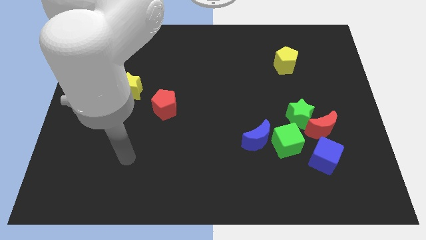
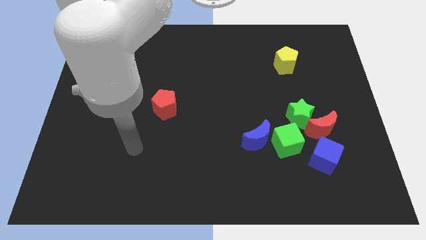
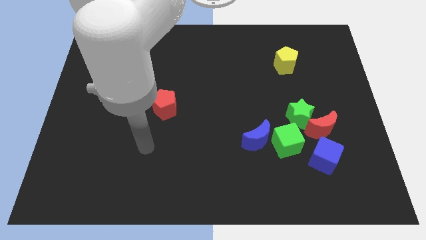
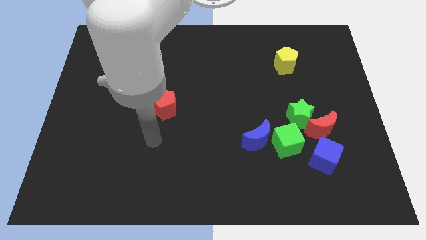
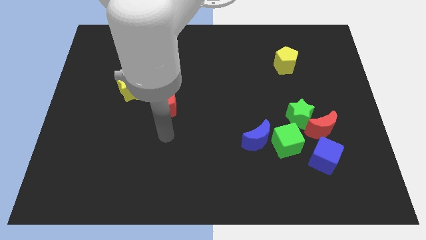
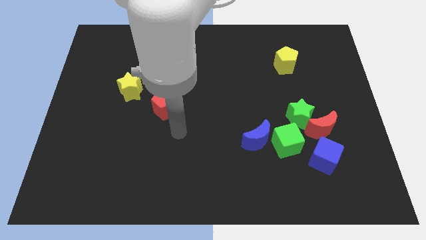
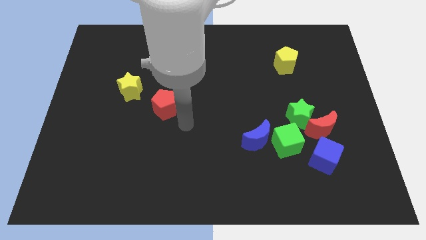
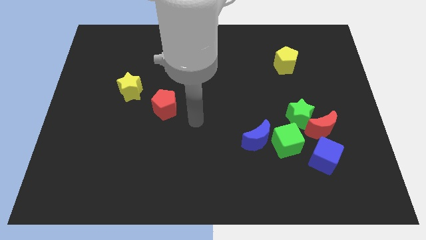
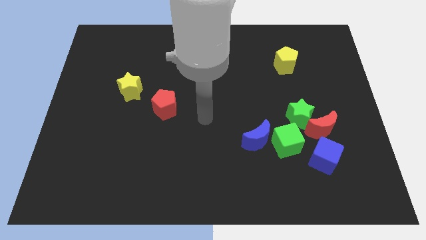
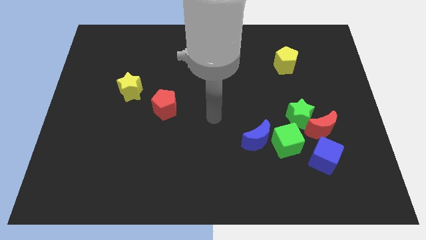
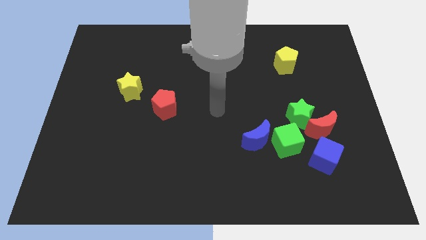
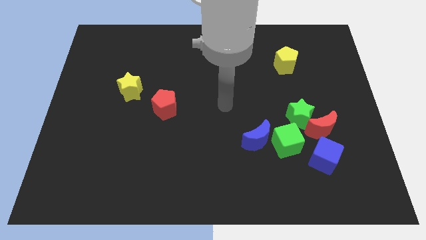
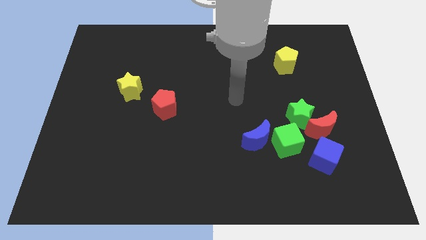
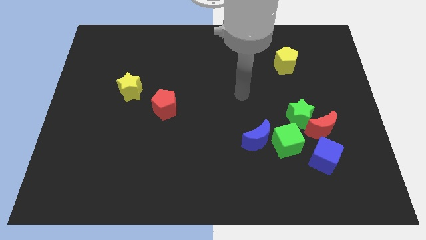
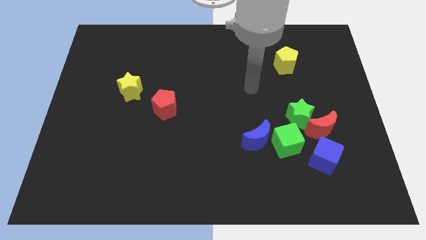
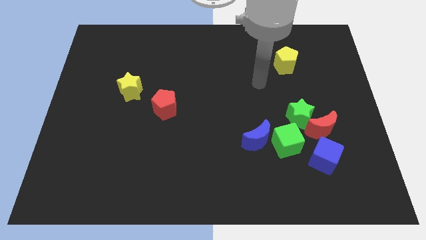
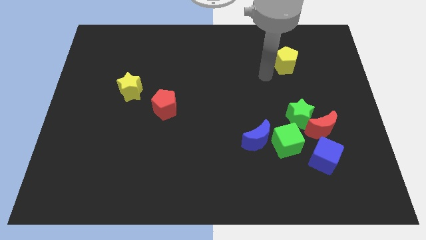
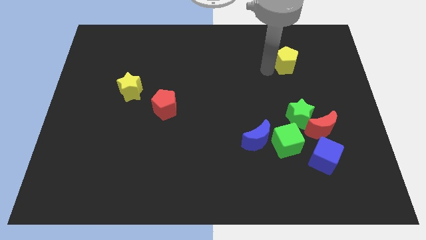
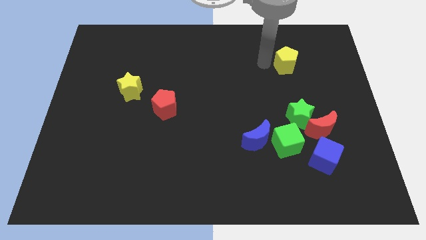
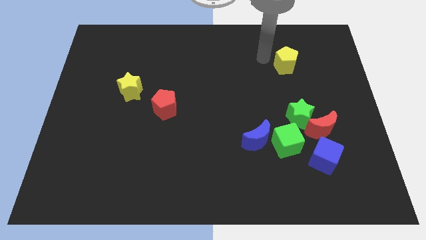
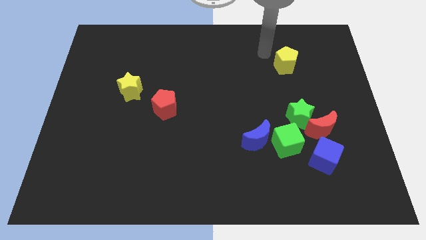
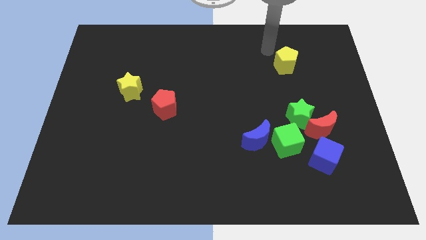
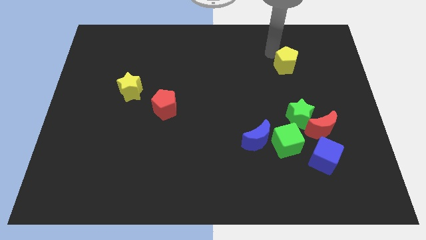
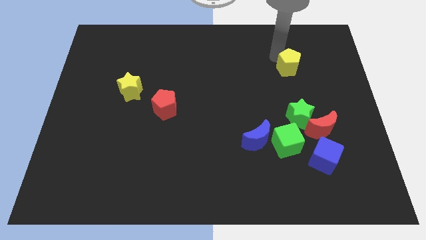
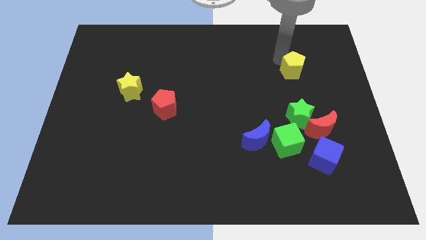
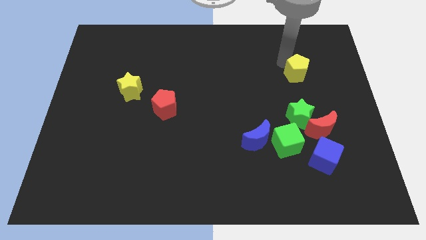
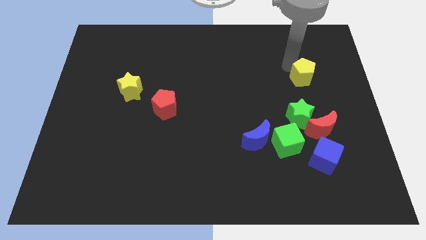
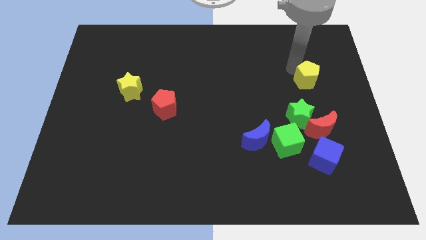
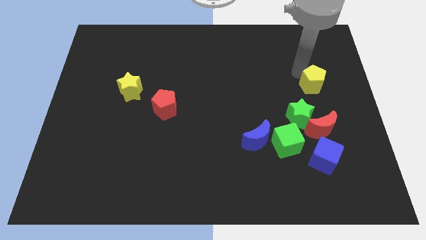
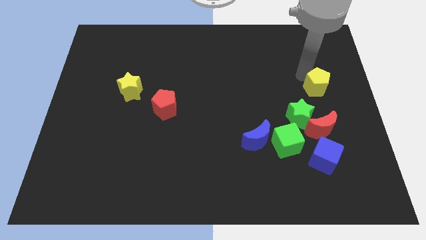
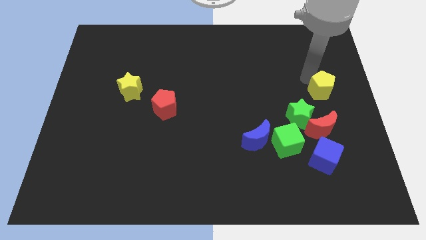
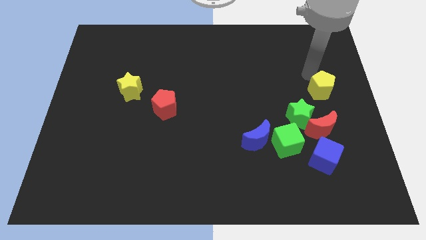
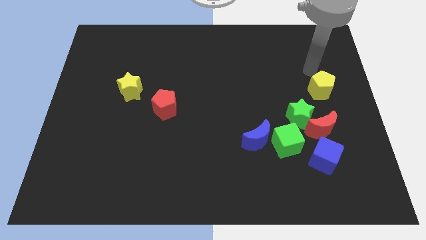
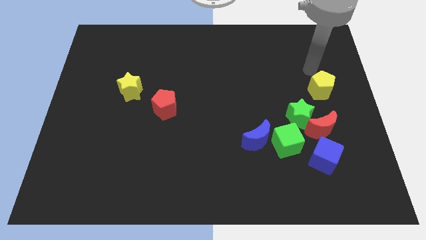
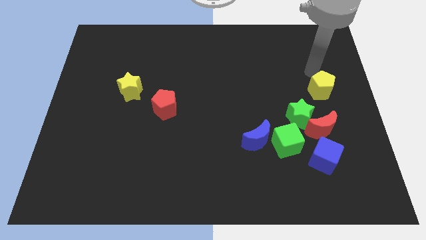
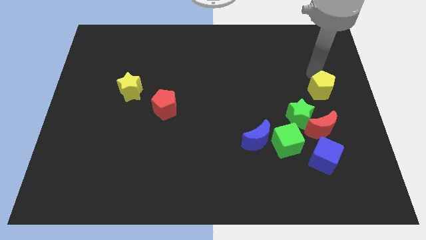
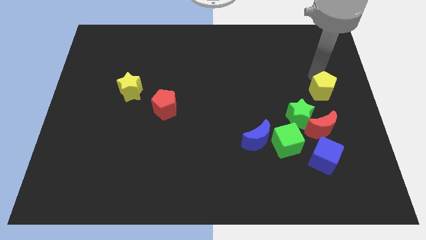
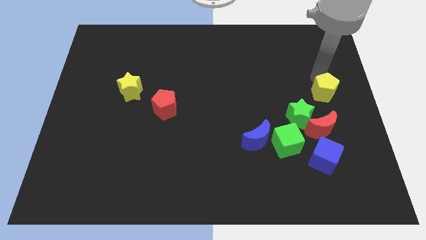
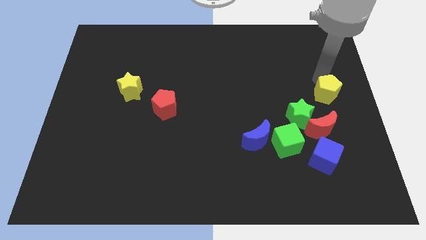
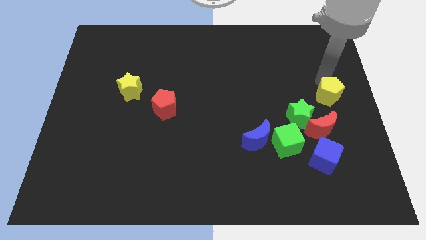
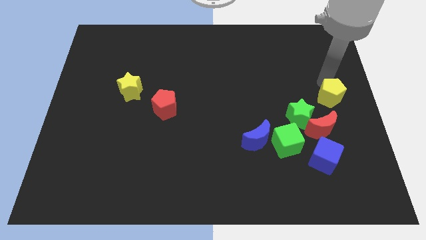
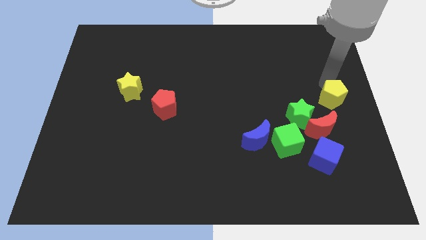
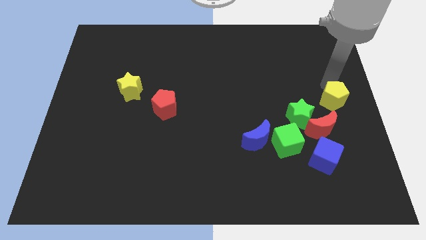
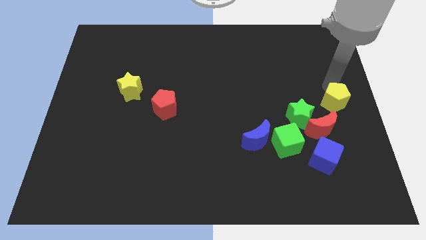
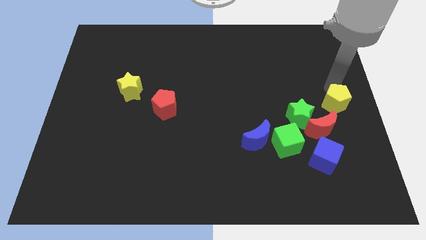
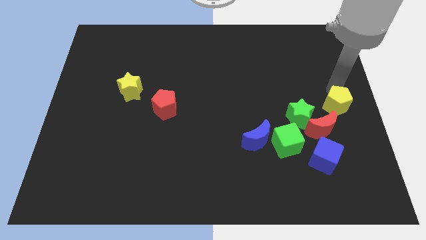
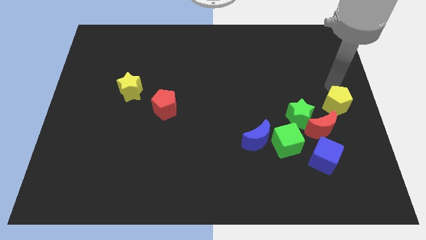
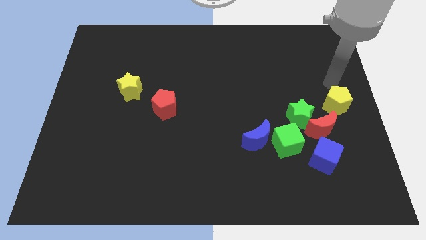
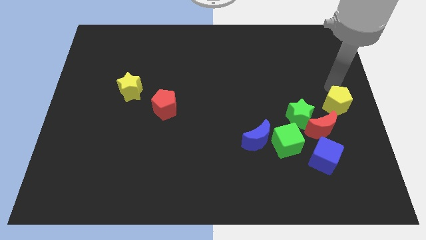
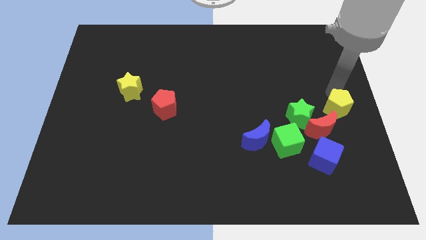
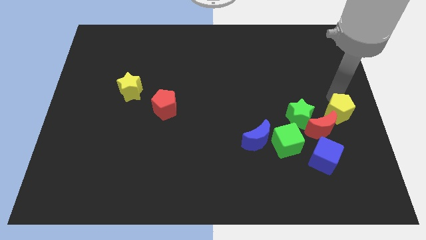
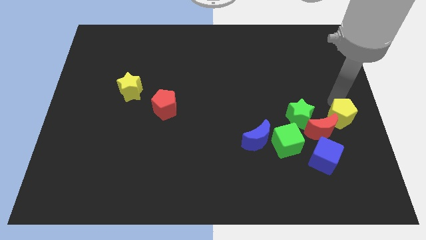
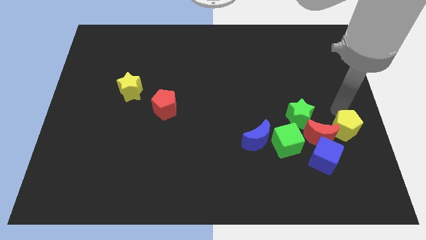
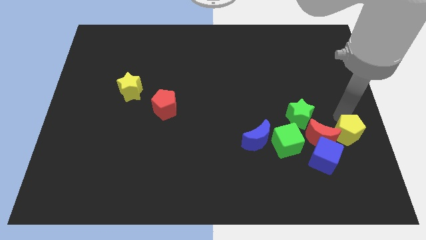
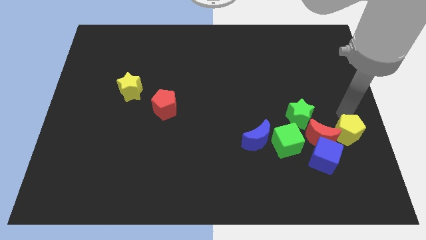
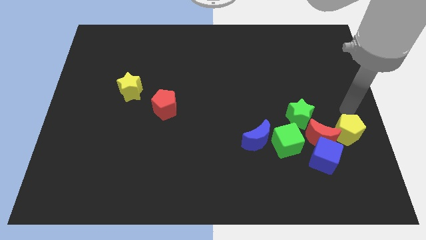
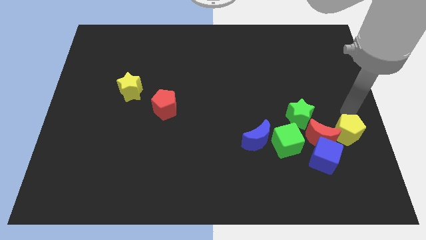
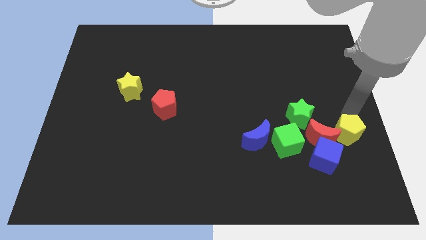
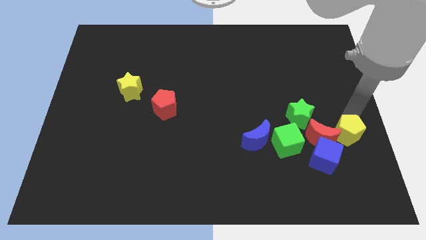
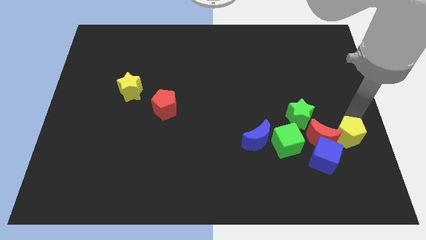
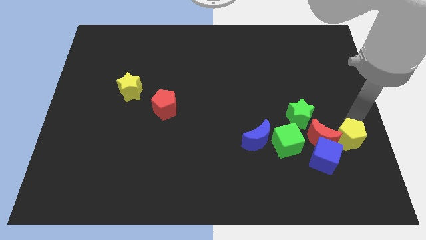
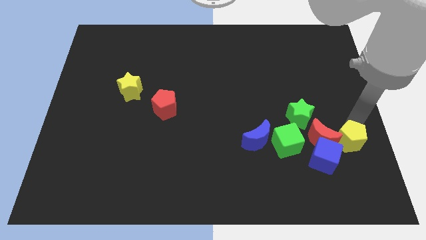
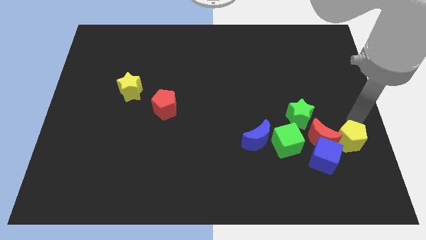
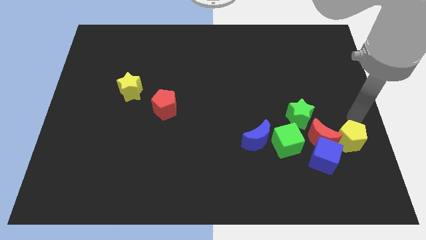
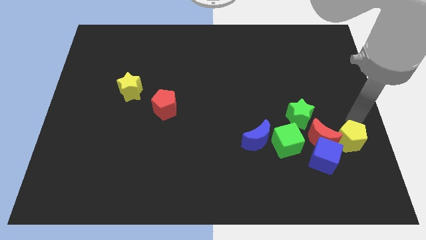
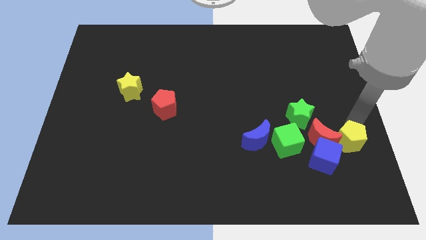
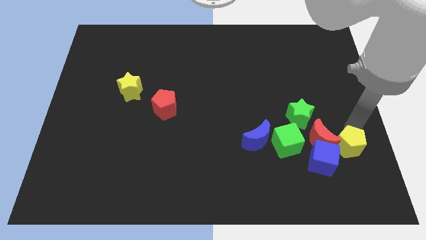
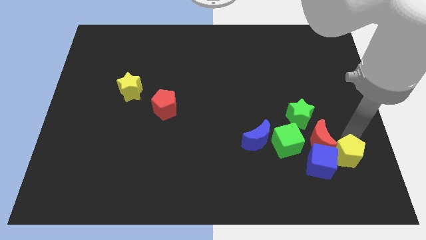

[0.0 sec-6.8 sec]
slide the yellow pentagon down

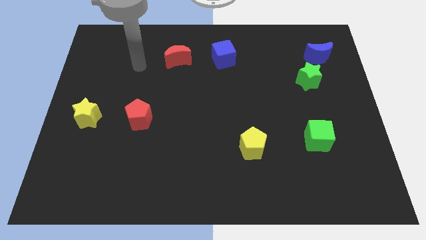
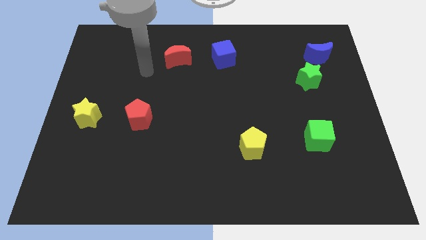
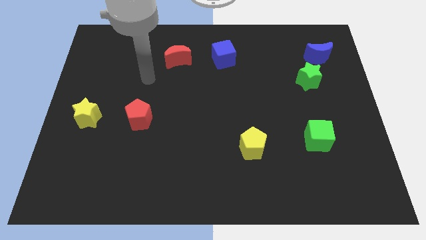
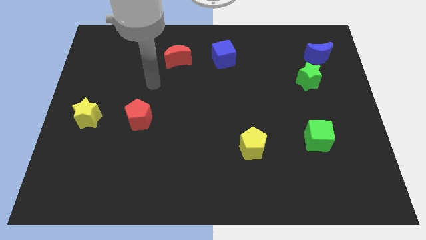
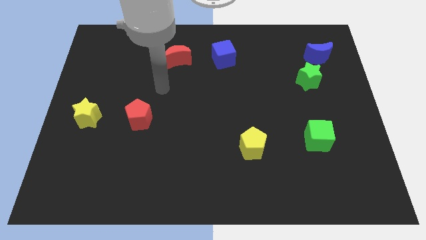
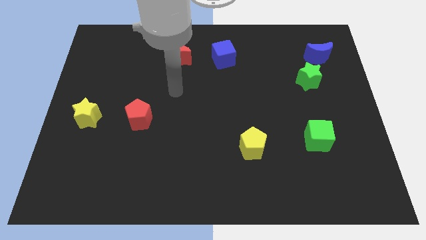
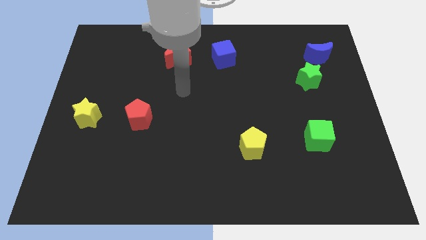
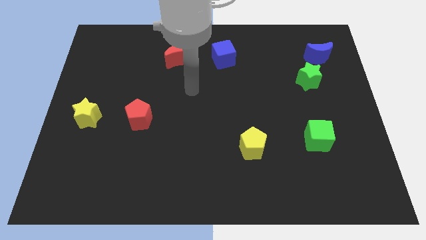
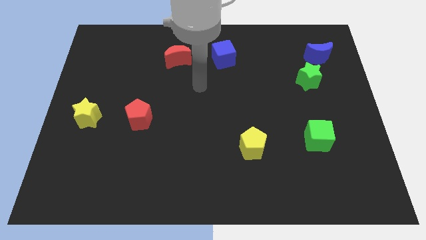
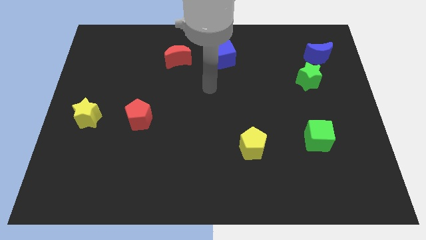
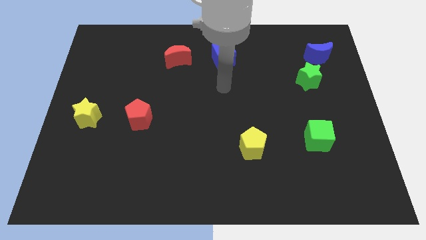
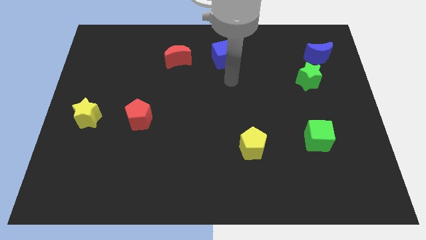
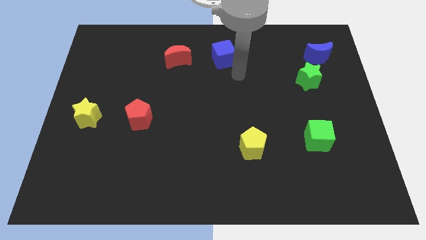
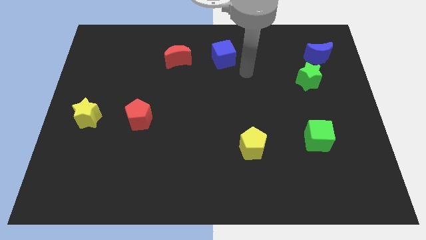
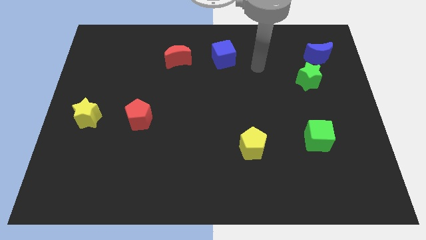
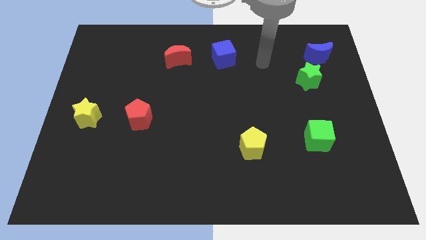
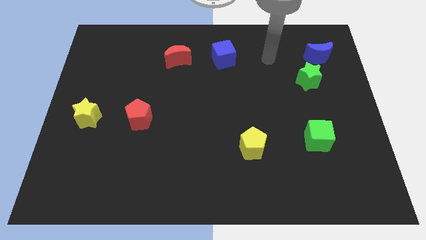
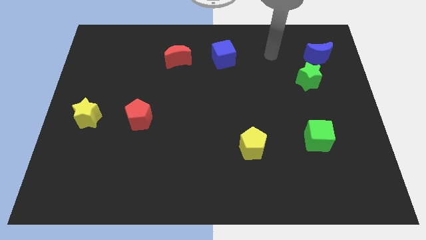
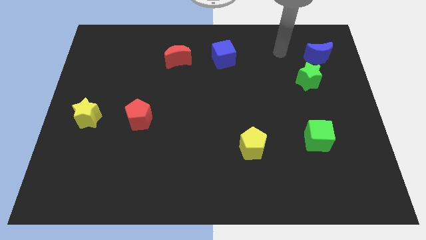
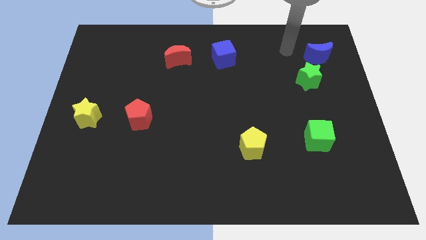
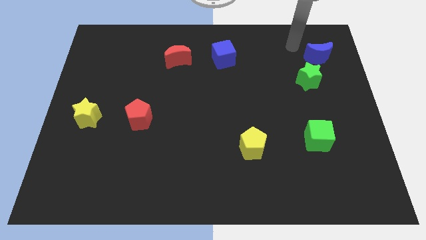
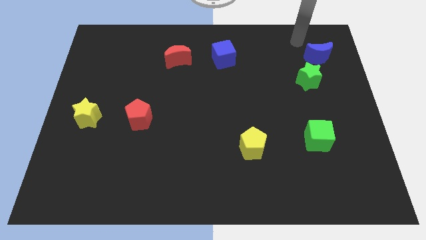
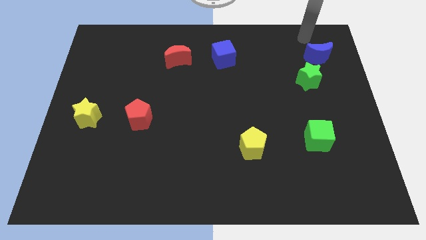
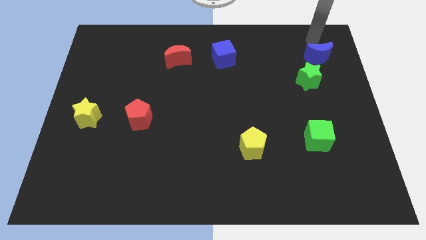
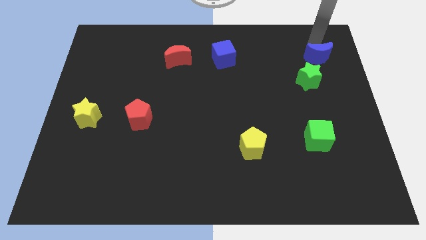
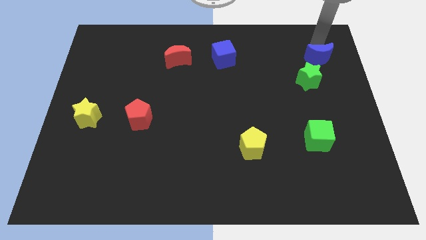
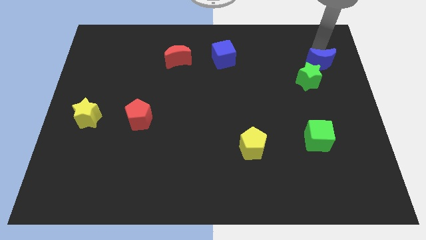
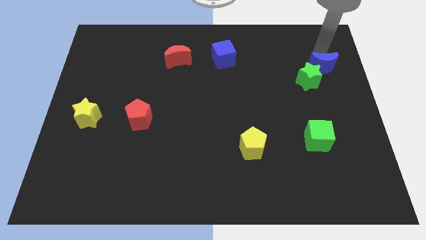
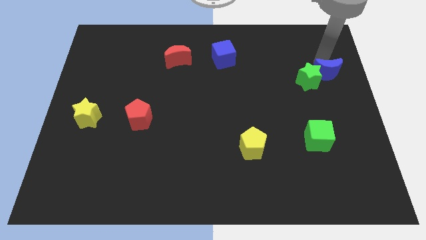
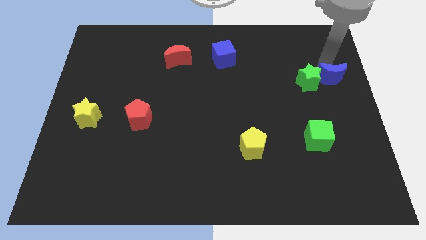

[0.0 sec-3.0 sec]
slightly move the blue moon downwards
